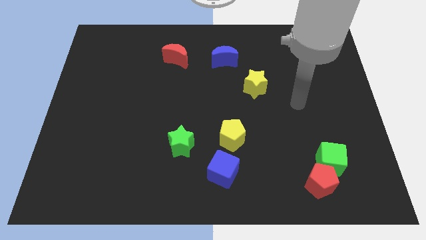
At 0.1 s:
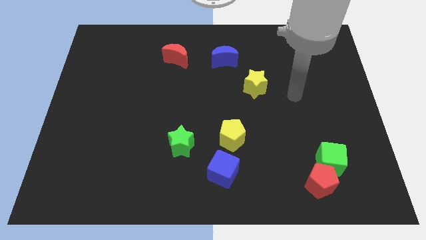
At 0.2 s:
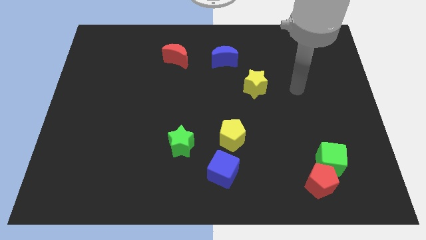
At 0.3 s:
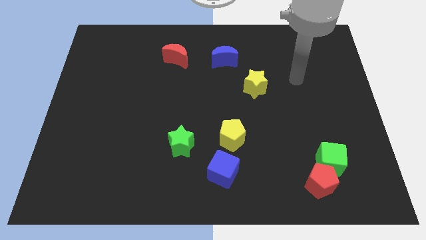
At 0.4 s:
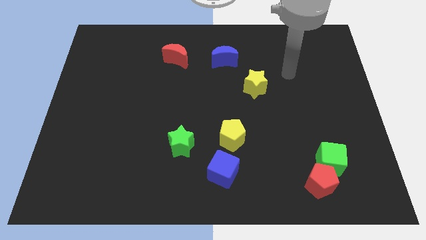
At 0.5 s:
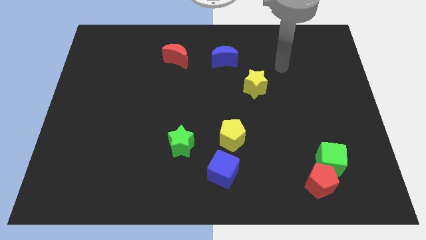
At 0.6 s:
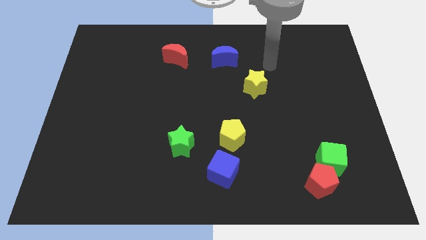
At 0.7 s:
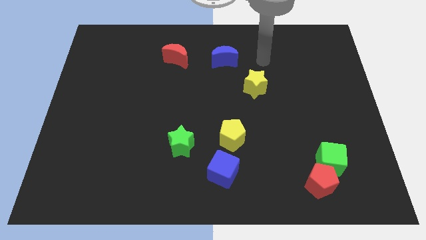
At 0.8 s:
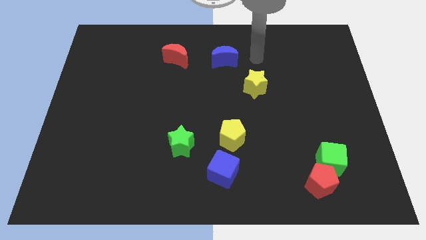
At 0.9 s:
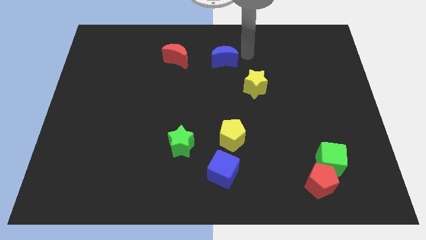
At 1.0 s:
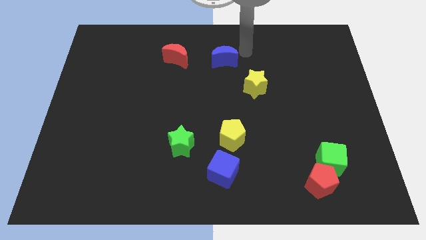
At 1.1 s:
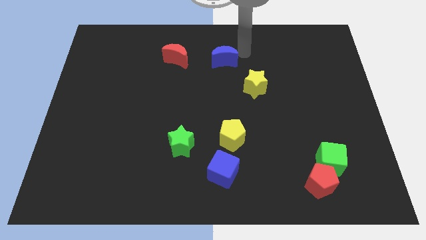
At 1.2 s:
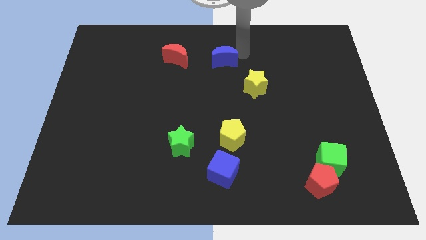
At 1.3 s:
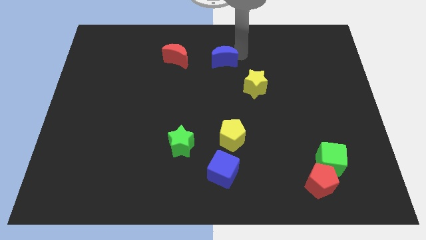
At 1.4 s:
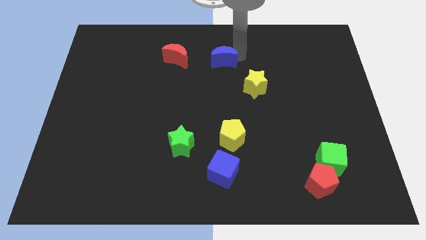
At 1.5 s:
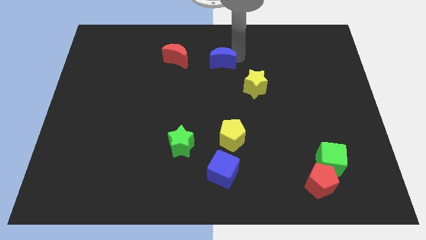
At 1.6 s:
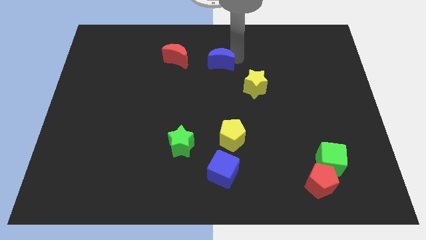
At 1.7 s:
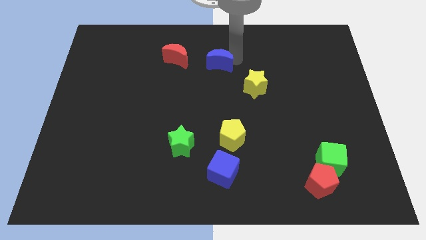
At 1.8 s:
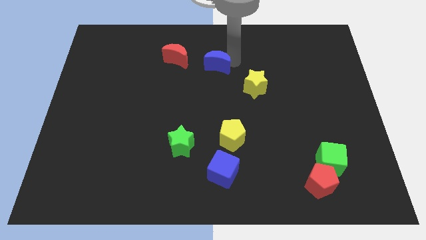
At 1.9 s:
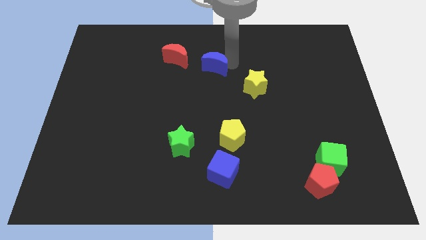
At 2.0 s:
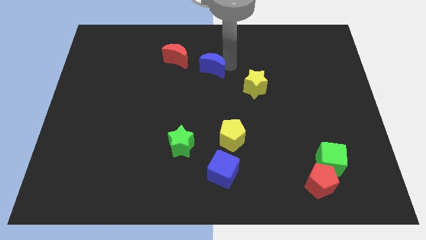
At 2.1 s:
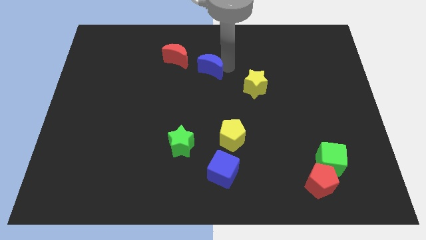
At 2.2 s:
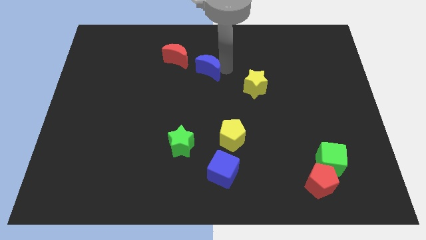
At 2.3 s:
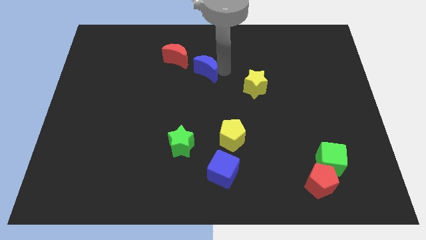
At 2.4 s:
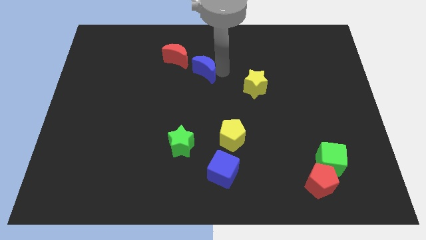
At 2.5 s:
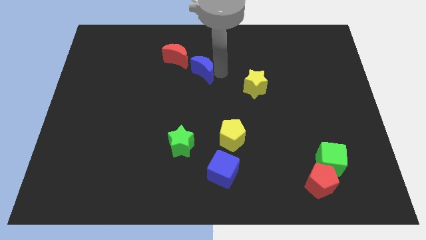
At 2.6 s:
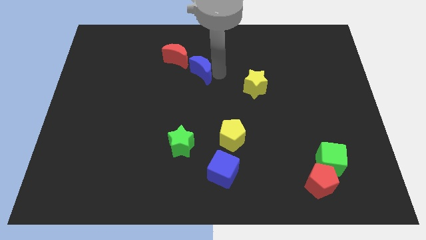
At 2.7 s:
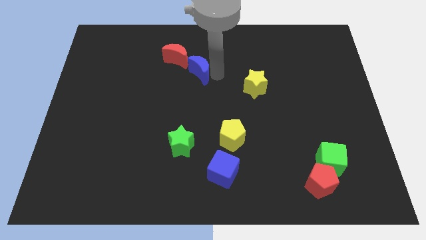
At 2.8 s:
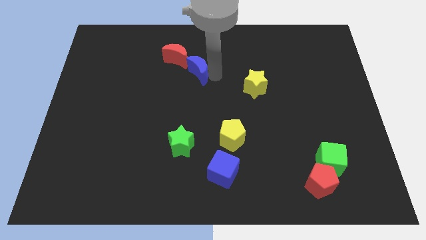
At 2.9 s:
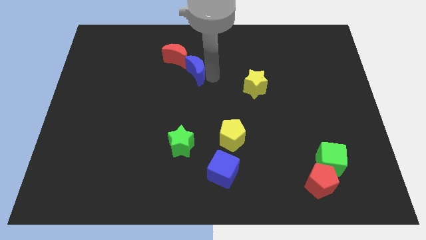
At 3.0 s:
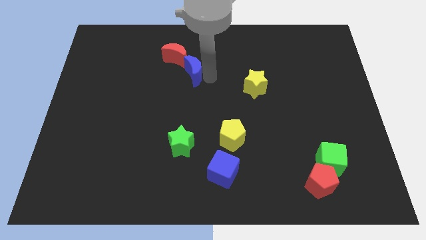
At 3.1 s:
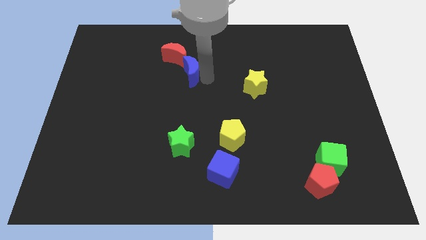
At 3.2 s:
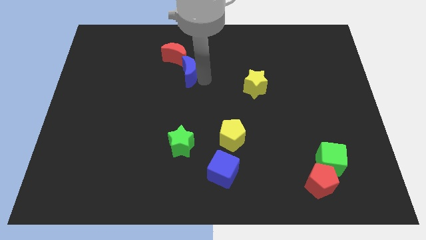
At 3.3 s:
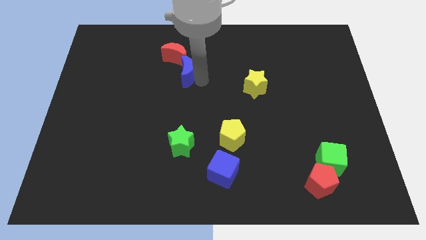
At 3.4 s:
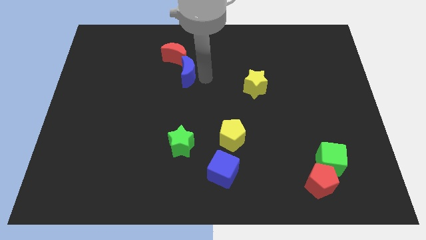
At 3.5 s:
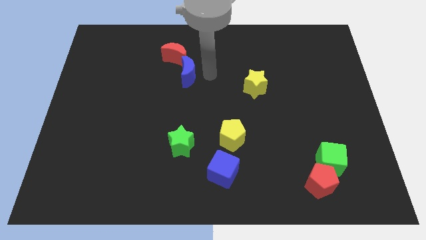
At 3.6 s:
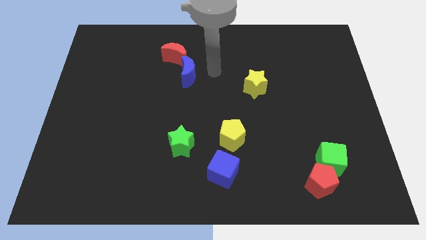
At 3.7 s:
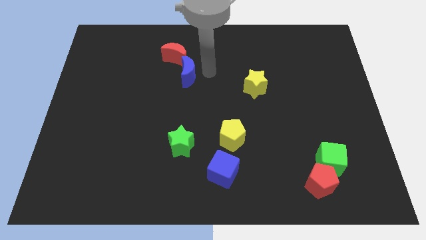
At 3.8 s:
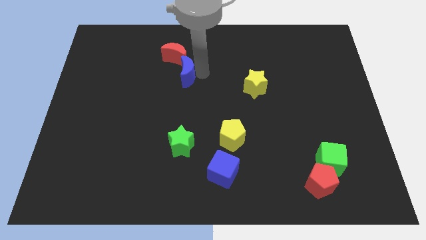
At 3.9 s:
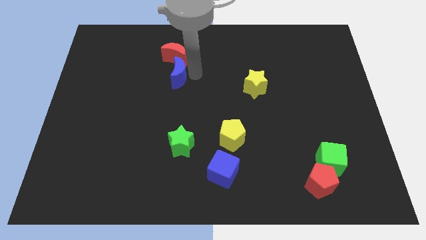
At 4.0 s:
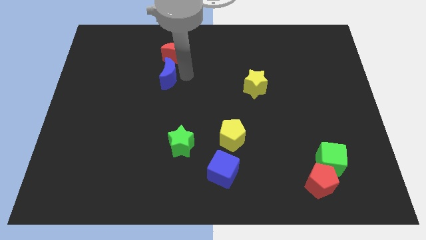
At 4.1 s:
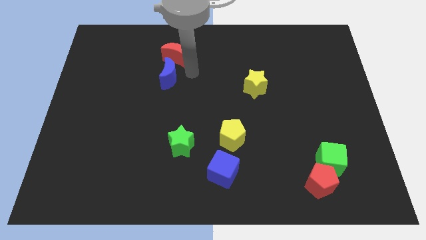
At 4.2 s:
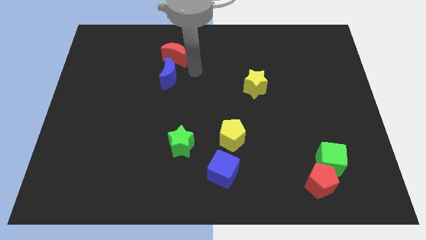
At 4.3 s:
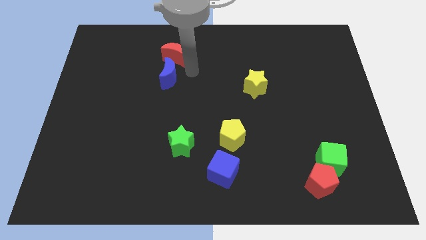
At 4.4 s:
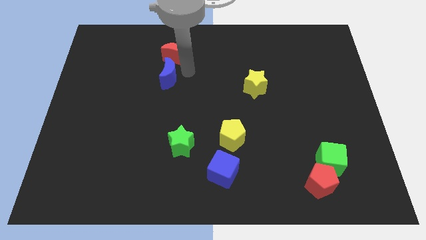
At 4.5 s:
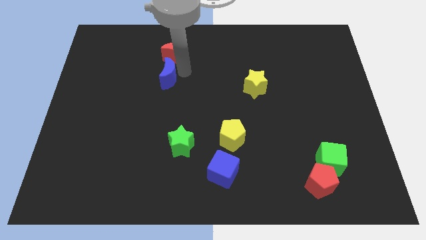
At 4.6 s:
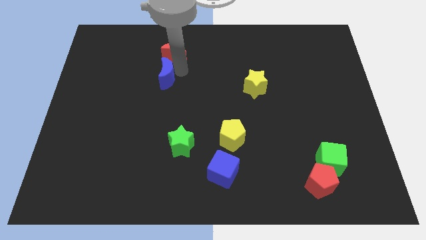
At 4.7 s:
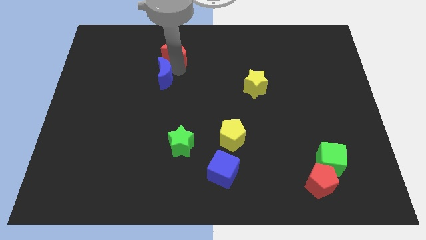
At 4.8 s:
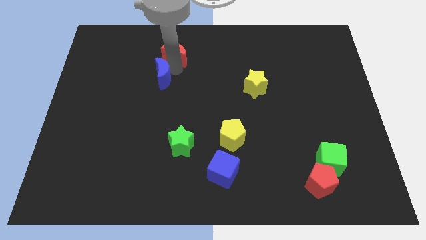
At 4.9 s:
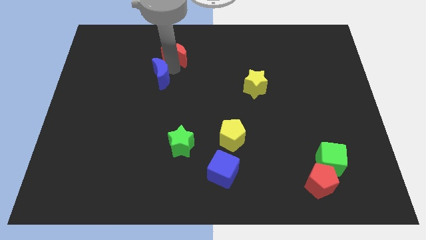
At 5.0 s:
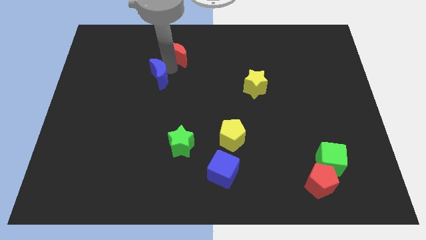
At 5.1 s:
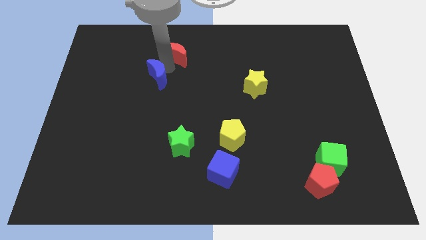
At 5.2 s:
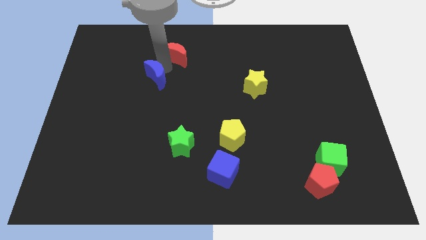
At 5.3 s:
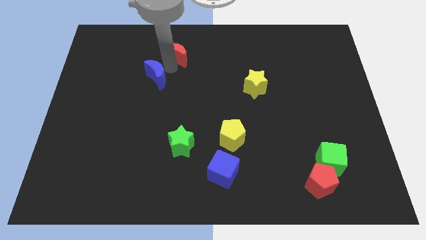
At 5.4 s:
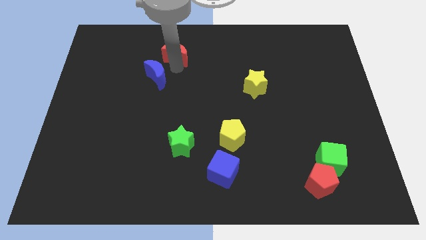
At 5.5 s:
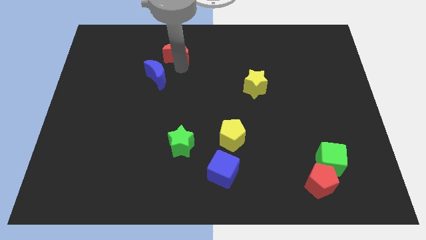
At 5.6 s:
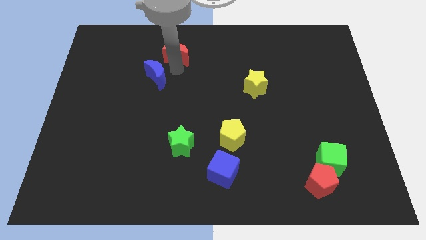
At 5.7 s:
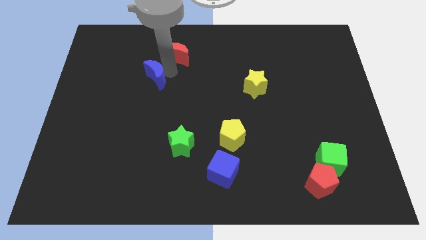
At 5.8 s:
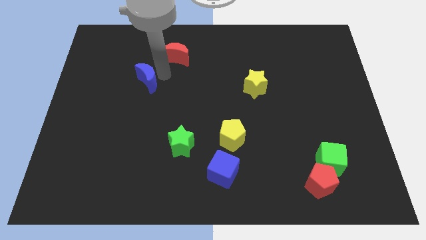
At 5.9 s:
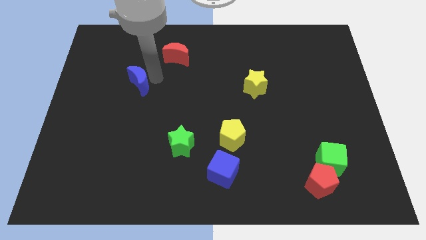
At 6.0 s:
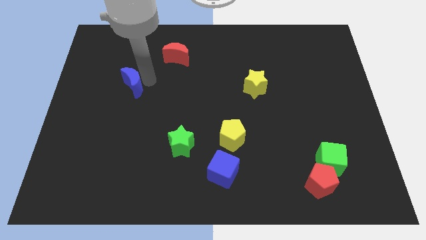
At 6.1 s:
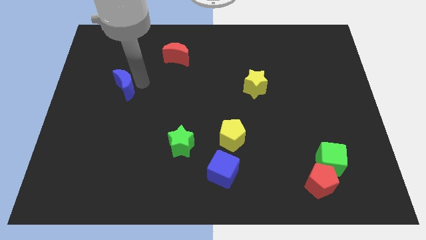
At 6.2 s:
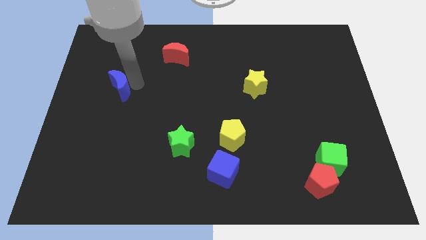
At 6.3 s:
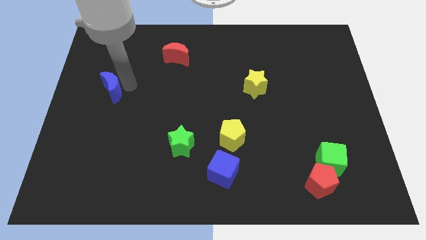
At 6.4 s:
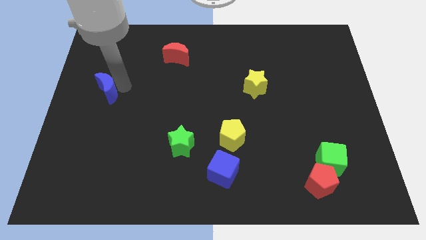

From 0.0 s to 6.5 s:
push the blue moon to the left side of the board

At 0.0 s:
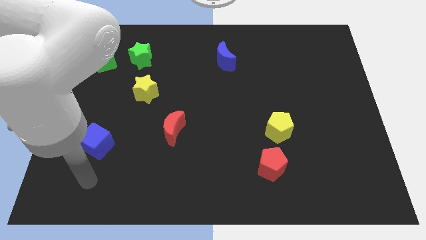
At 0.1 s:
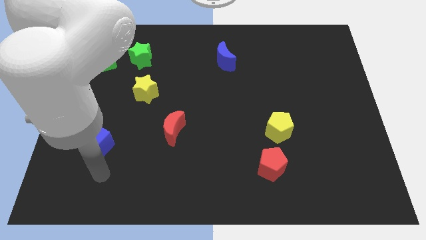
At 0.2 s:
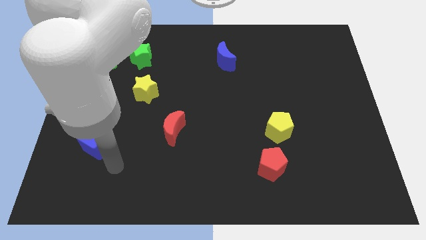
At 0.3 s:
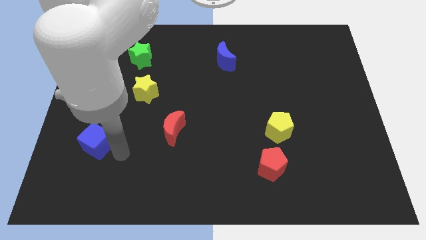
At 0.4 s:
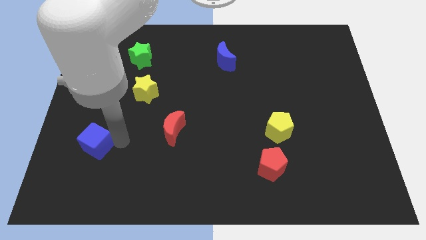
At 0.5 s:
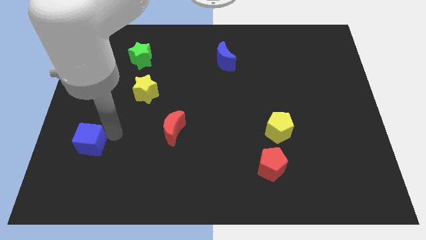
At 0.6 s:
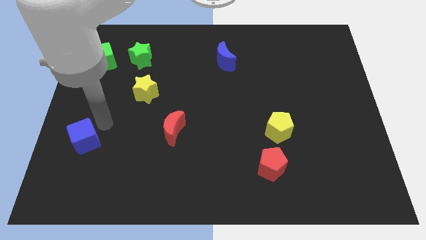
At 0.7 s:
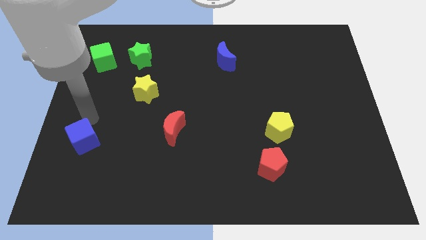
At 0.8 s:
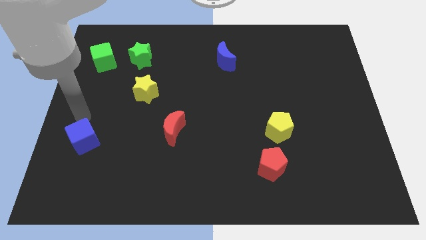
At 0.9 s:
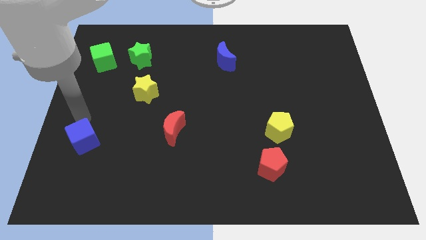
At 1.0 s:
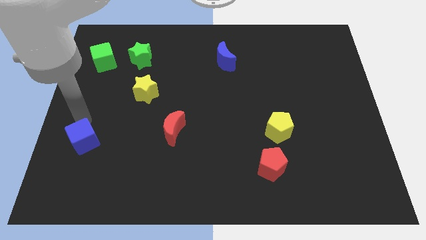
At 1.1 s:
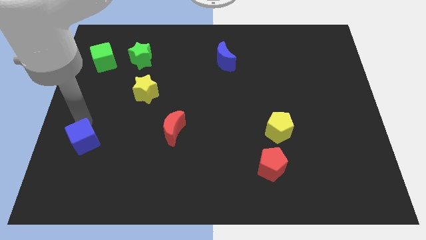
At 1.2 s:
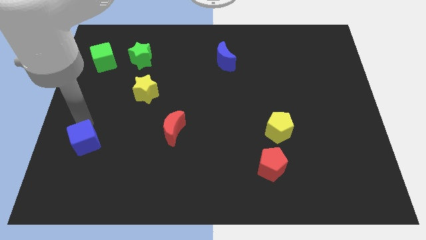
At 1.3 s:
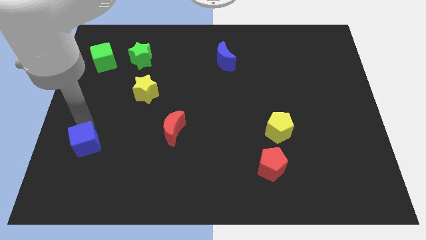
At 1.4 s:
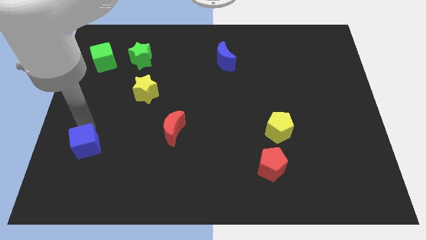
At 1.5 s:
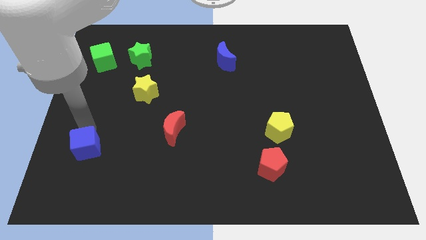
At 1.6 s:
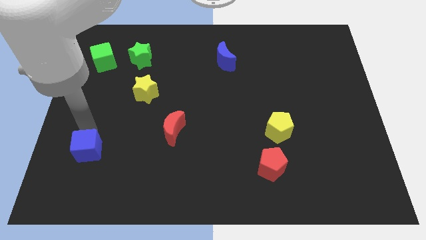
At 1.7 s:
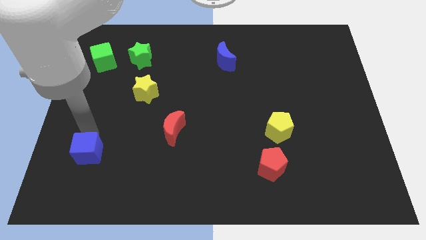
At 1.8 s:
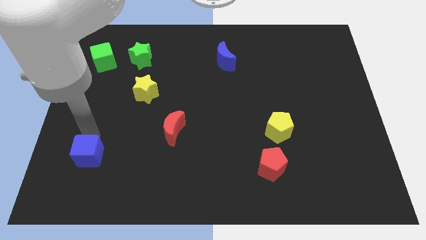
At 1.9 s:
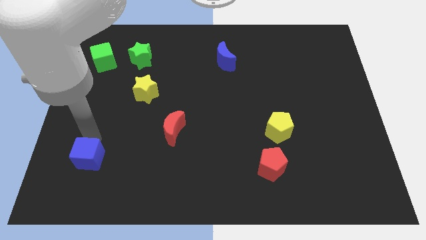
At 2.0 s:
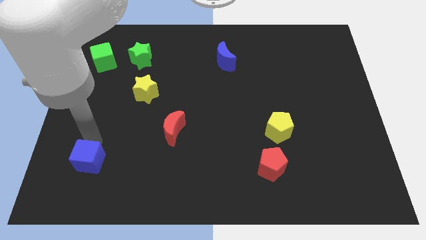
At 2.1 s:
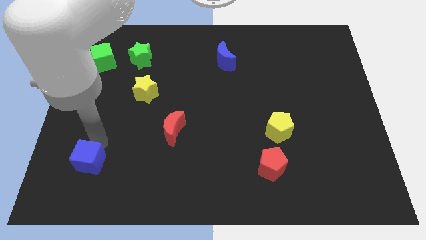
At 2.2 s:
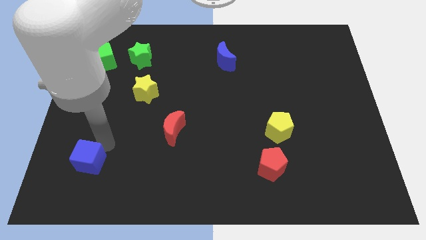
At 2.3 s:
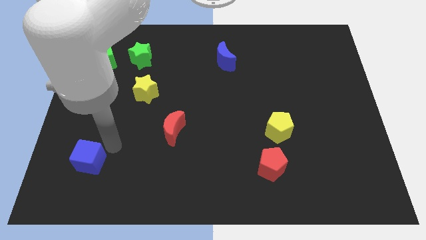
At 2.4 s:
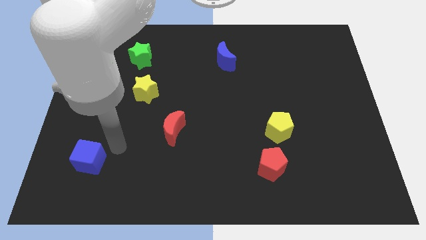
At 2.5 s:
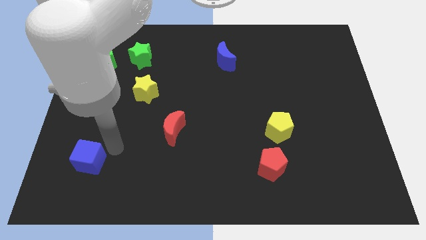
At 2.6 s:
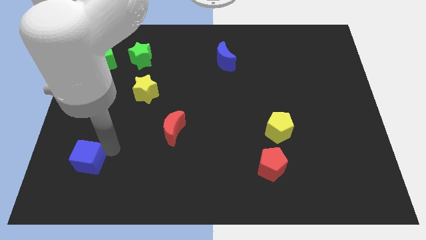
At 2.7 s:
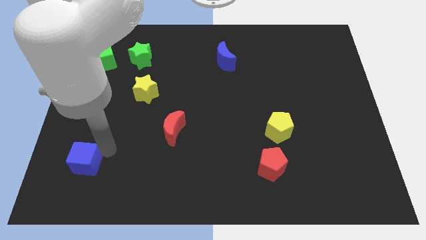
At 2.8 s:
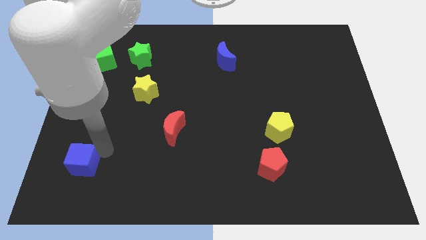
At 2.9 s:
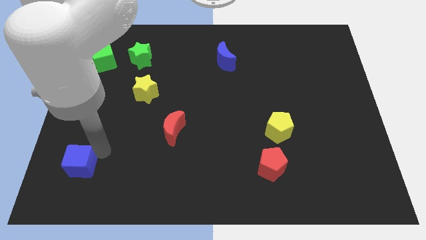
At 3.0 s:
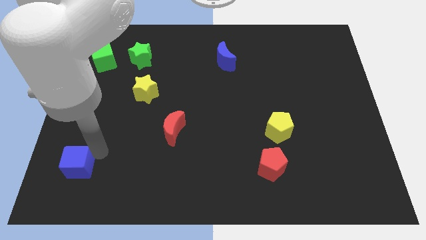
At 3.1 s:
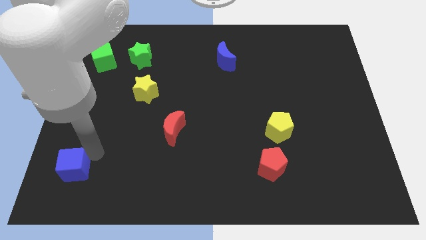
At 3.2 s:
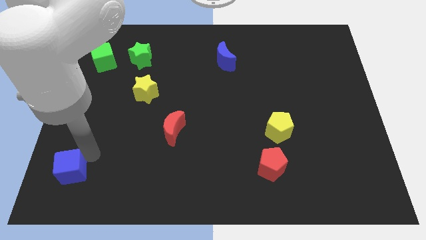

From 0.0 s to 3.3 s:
put the blue cube to the bottom left of the board
